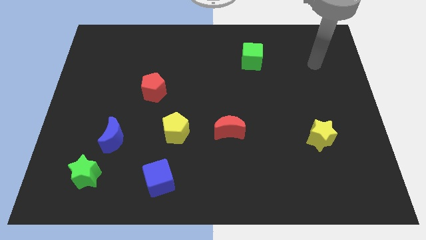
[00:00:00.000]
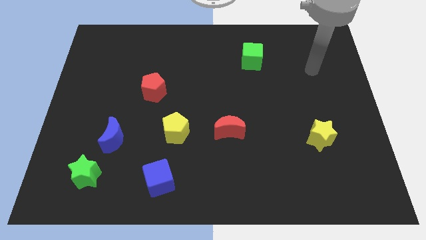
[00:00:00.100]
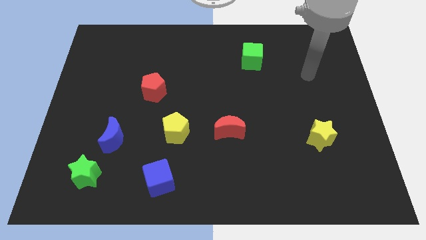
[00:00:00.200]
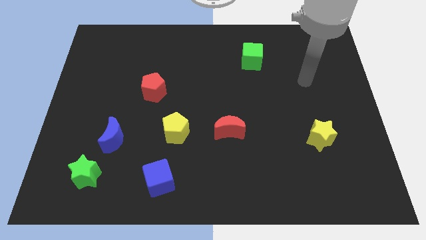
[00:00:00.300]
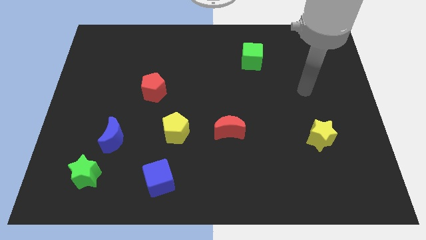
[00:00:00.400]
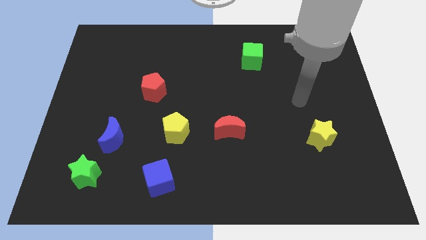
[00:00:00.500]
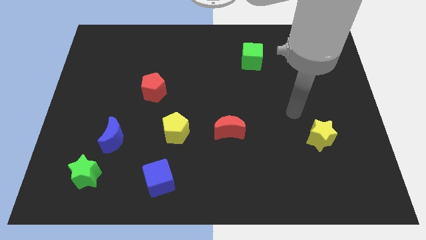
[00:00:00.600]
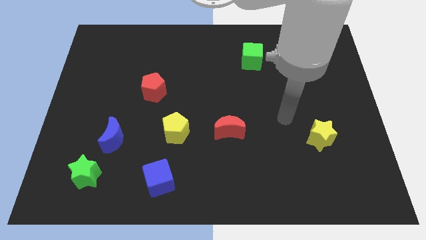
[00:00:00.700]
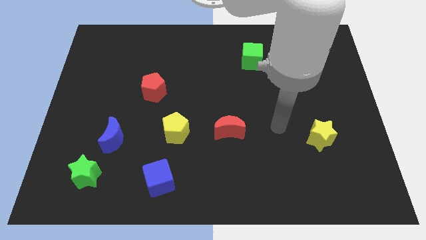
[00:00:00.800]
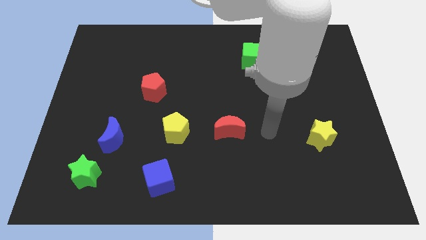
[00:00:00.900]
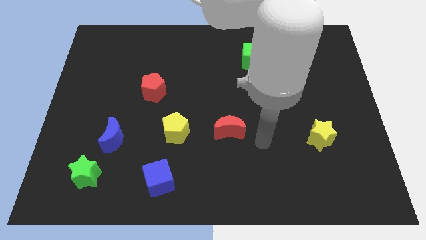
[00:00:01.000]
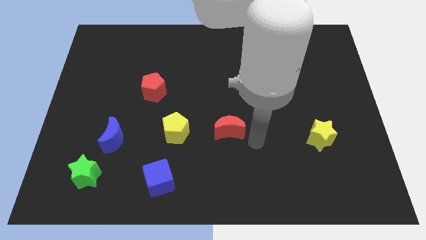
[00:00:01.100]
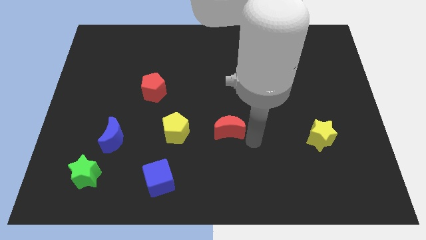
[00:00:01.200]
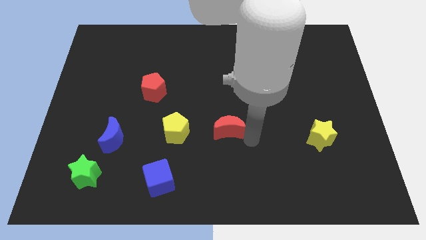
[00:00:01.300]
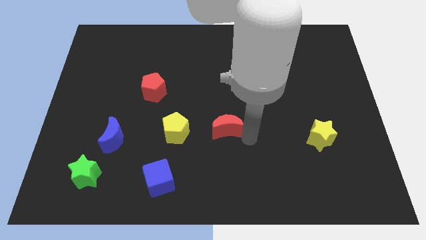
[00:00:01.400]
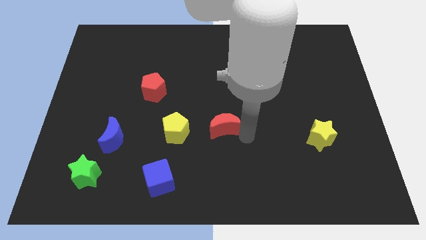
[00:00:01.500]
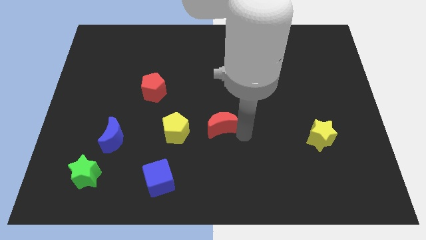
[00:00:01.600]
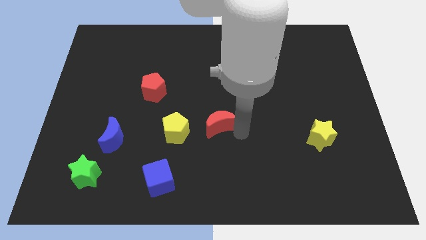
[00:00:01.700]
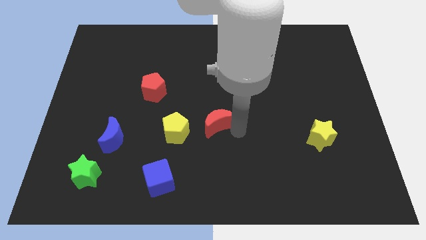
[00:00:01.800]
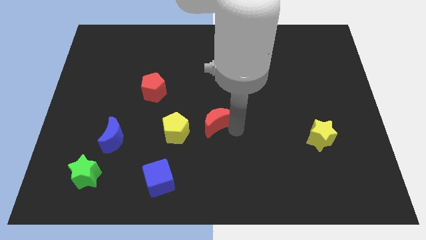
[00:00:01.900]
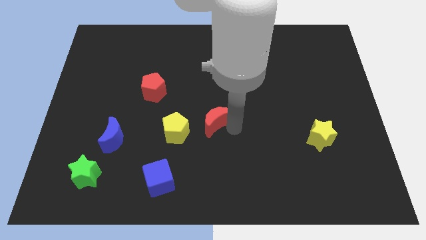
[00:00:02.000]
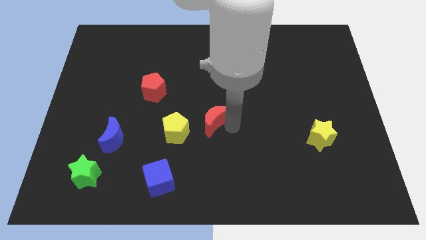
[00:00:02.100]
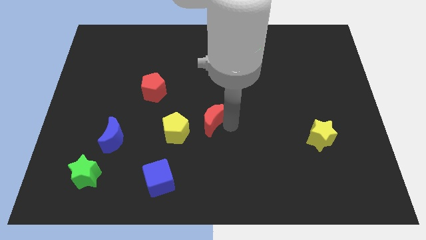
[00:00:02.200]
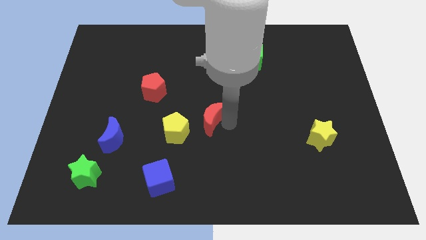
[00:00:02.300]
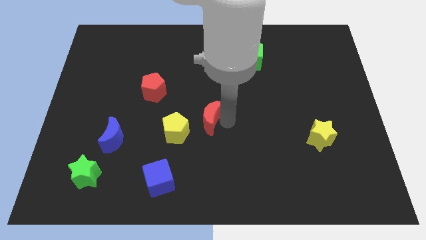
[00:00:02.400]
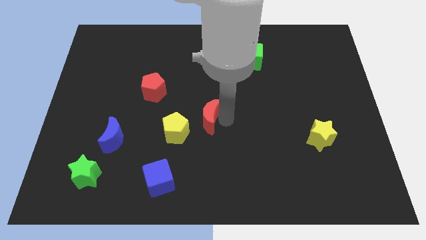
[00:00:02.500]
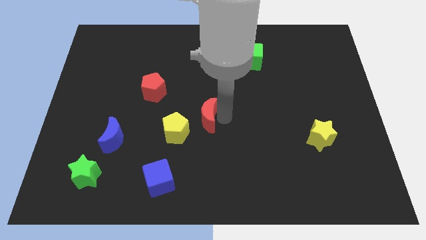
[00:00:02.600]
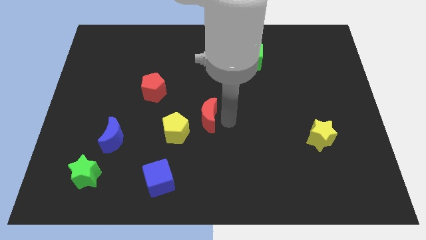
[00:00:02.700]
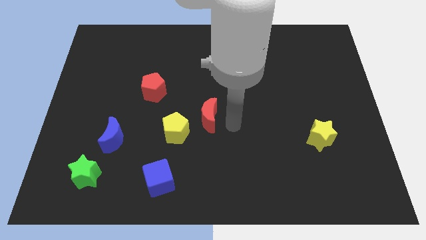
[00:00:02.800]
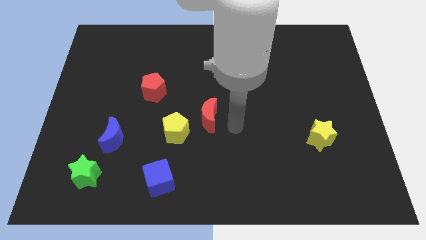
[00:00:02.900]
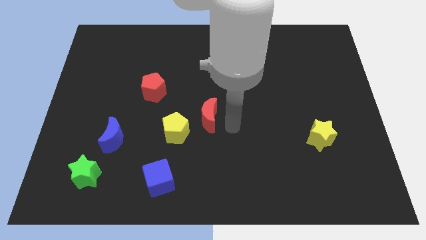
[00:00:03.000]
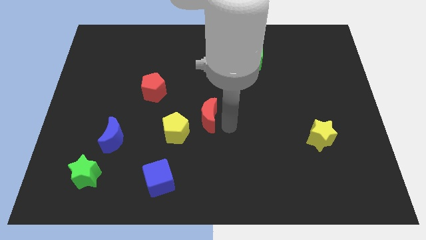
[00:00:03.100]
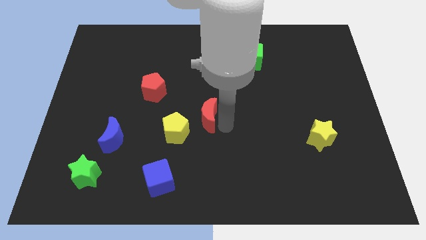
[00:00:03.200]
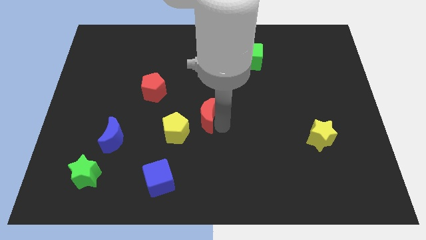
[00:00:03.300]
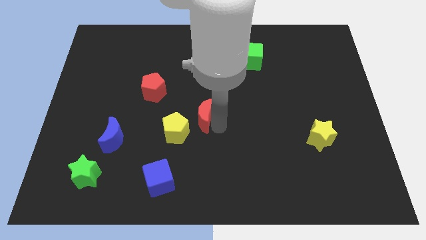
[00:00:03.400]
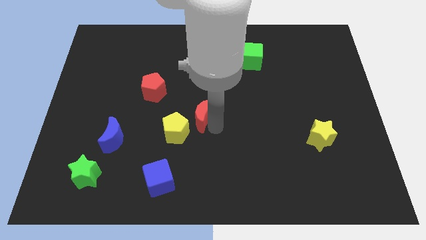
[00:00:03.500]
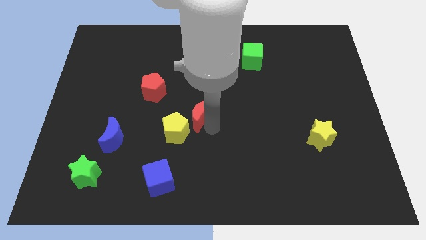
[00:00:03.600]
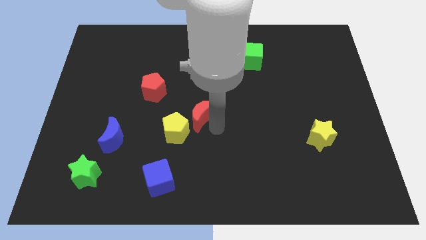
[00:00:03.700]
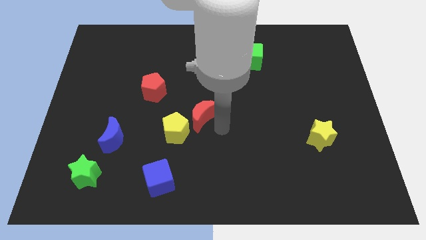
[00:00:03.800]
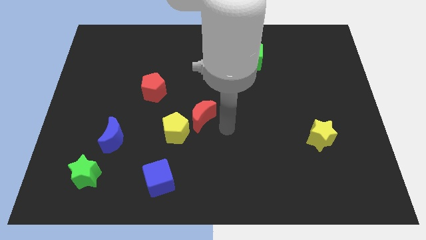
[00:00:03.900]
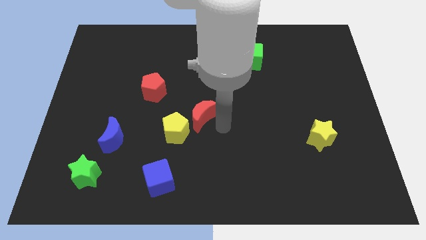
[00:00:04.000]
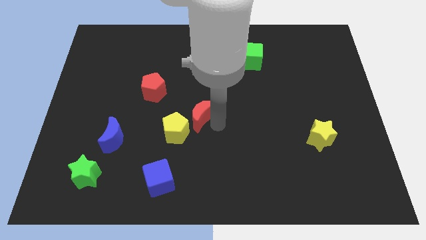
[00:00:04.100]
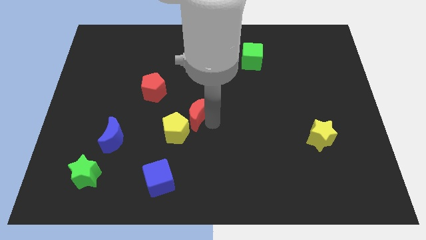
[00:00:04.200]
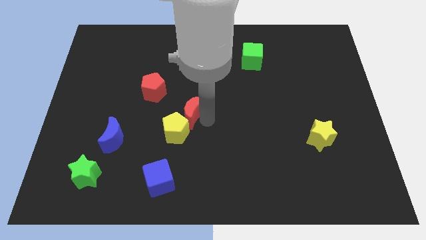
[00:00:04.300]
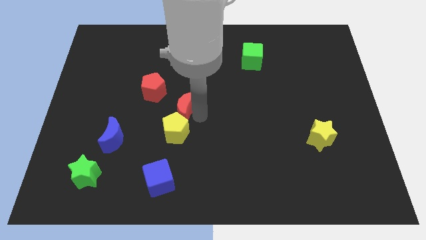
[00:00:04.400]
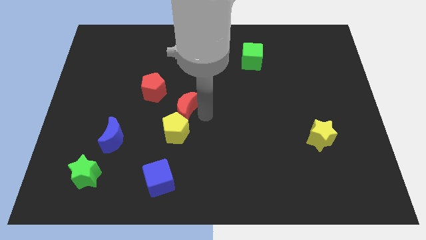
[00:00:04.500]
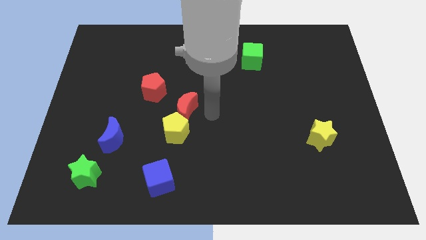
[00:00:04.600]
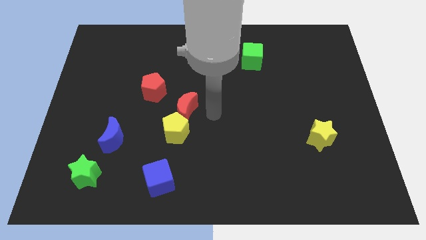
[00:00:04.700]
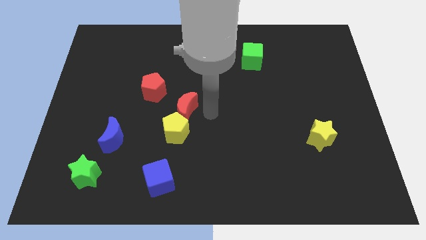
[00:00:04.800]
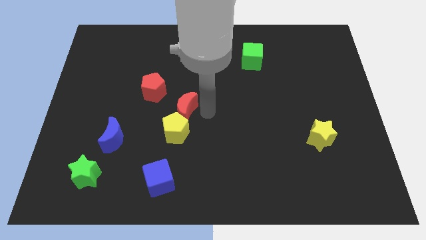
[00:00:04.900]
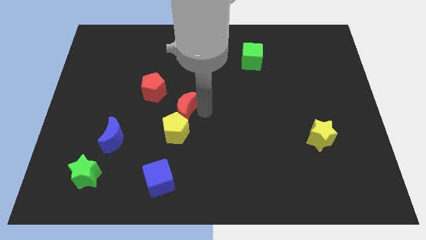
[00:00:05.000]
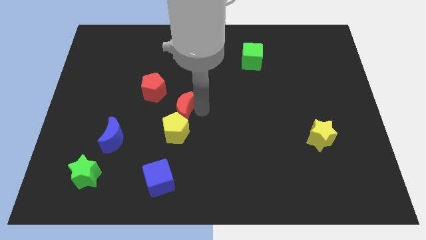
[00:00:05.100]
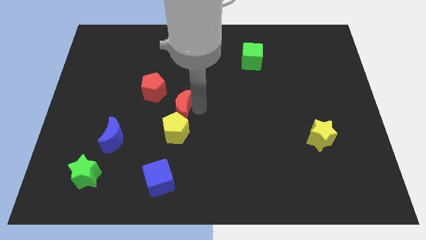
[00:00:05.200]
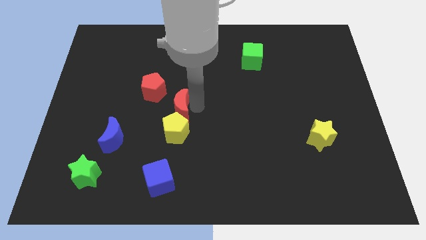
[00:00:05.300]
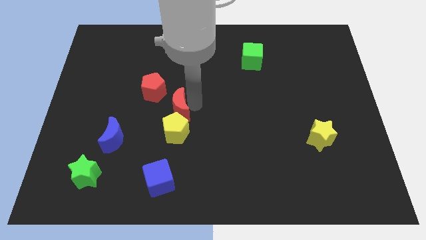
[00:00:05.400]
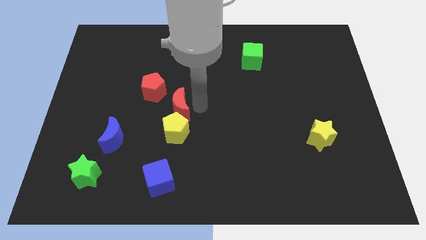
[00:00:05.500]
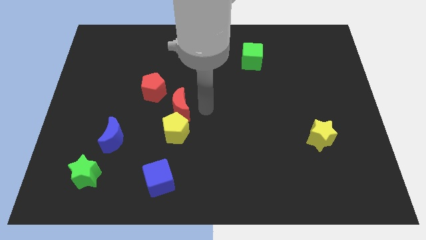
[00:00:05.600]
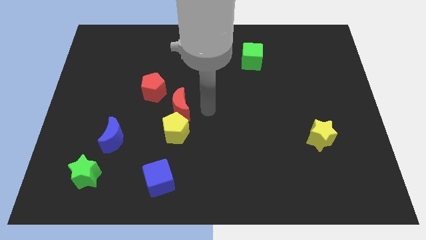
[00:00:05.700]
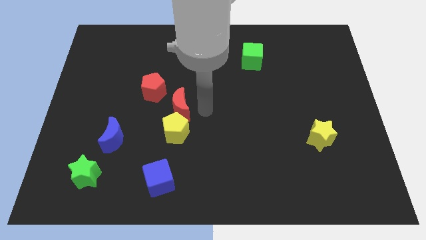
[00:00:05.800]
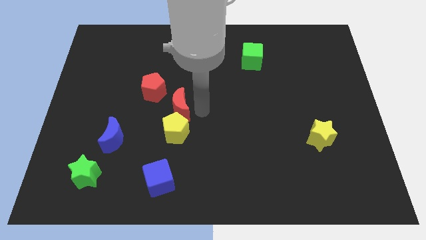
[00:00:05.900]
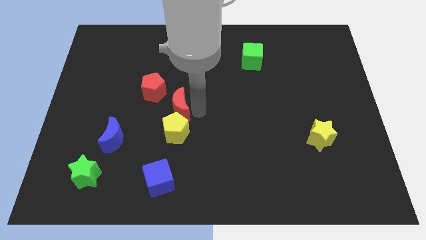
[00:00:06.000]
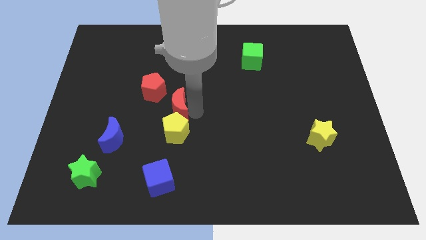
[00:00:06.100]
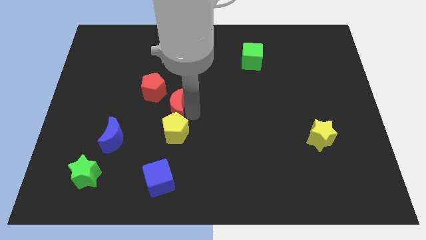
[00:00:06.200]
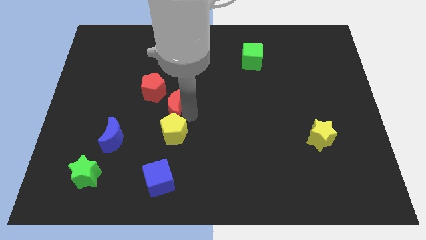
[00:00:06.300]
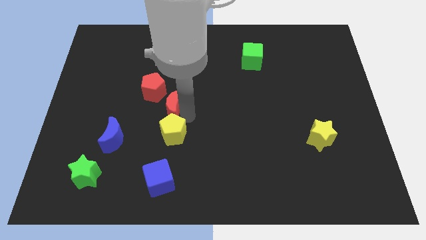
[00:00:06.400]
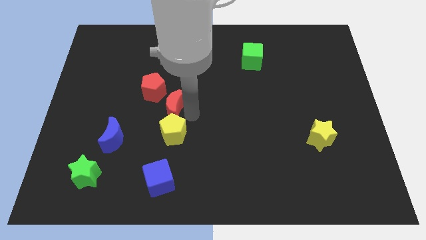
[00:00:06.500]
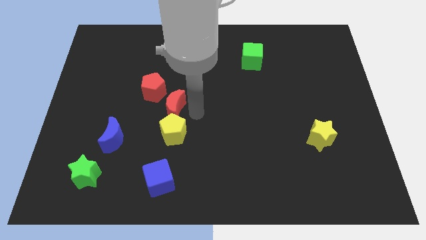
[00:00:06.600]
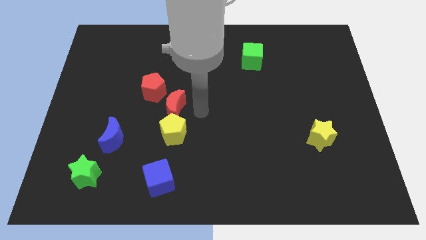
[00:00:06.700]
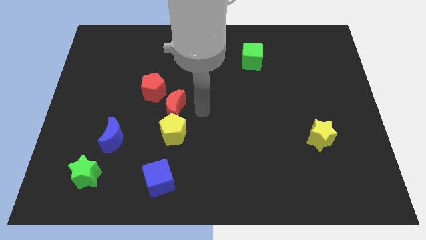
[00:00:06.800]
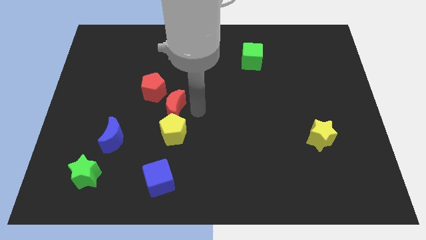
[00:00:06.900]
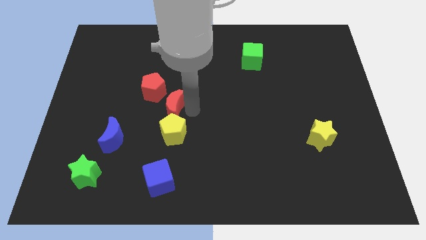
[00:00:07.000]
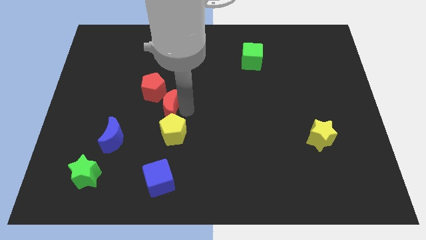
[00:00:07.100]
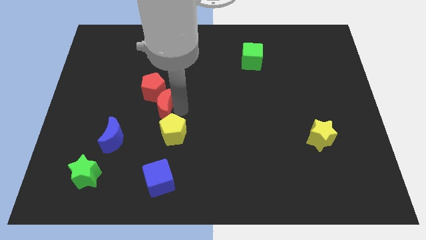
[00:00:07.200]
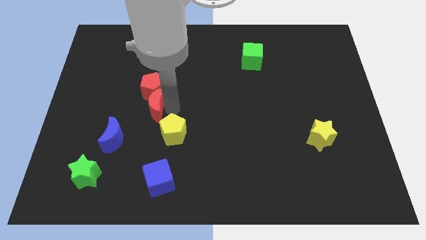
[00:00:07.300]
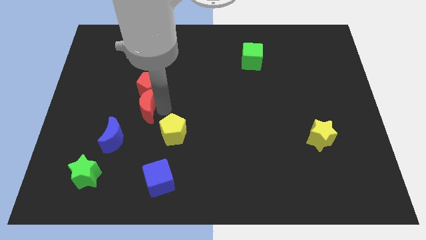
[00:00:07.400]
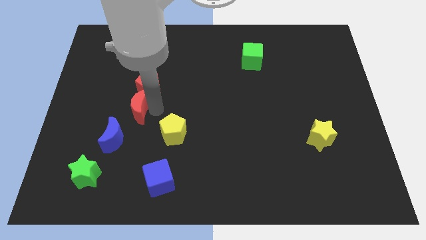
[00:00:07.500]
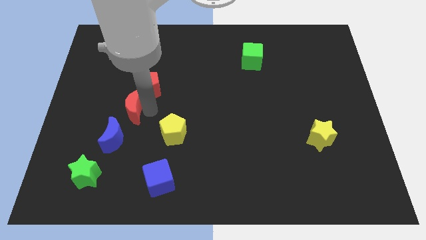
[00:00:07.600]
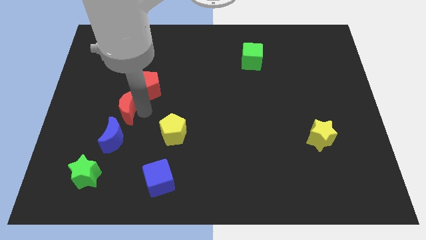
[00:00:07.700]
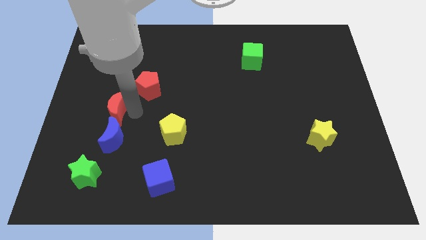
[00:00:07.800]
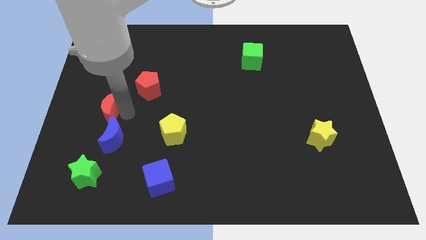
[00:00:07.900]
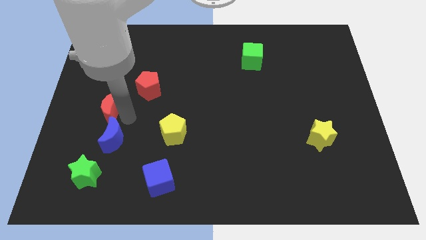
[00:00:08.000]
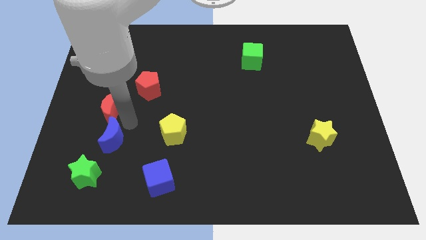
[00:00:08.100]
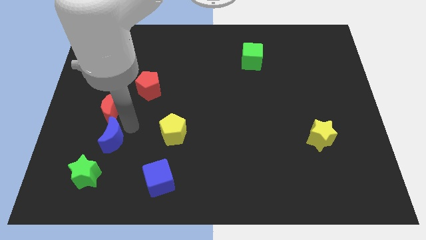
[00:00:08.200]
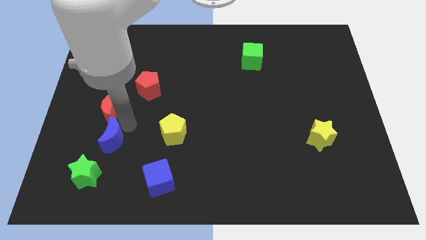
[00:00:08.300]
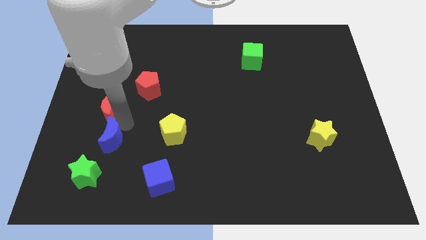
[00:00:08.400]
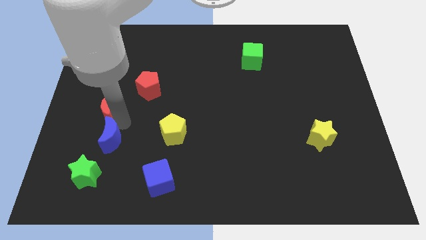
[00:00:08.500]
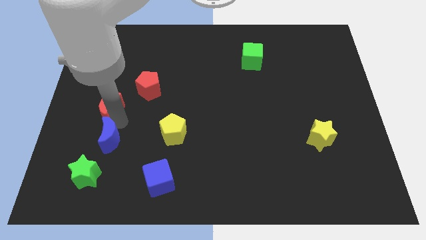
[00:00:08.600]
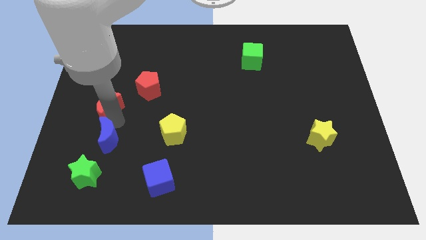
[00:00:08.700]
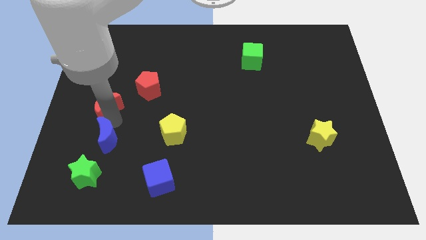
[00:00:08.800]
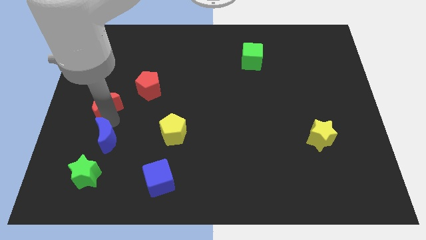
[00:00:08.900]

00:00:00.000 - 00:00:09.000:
put the red moon to the center left
